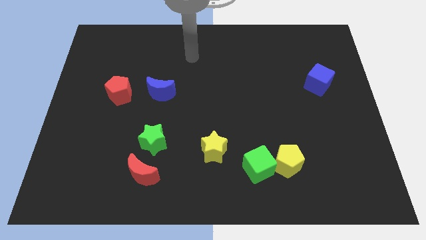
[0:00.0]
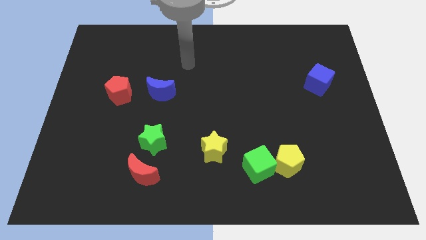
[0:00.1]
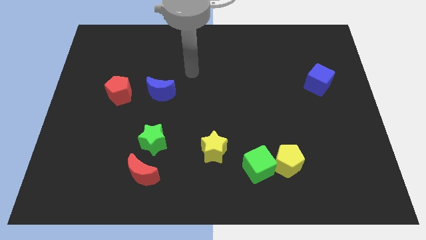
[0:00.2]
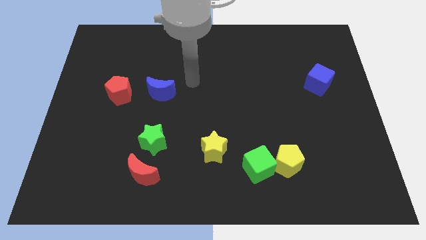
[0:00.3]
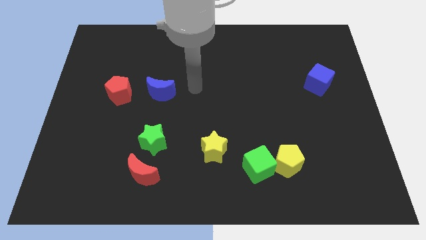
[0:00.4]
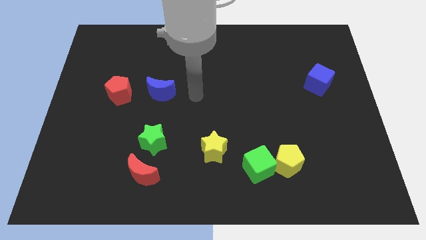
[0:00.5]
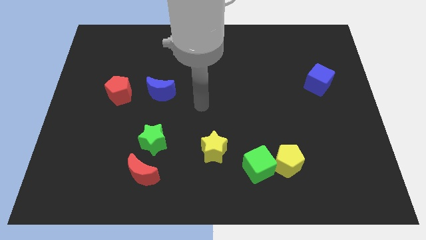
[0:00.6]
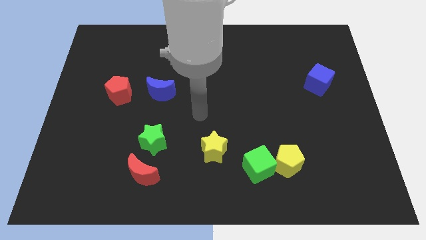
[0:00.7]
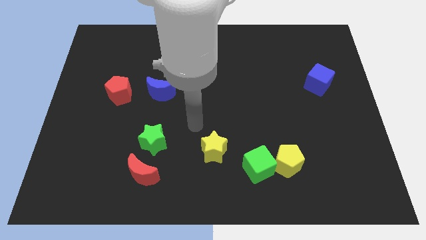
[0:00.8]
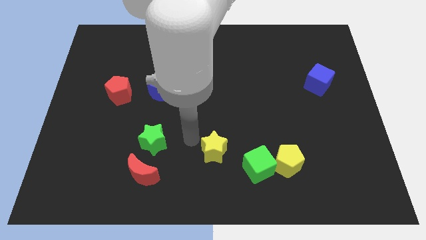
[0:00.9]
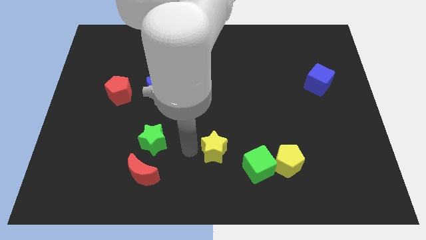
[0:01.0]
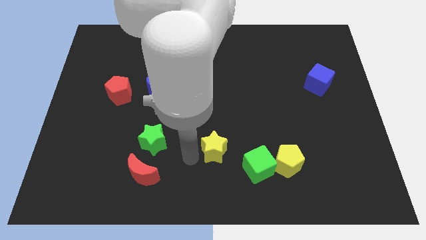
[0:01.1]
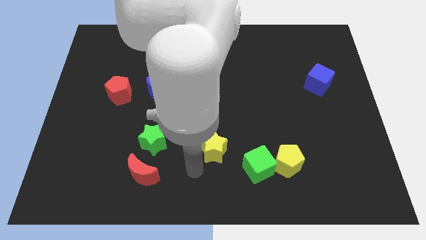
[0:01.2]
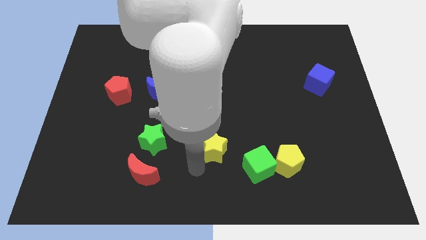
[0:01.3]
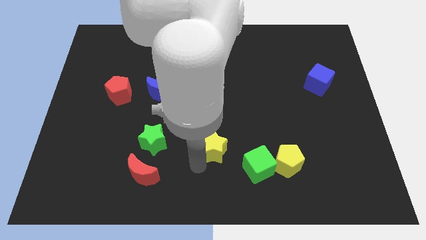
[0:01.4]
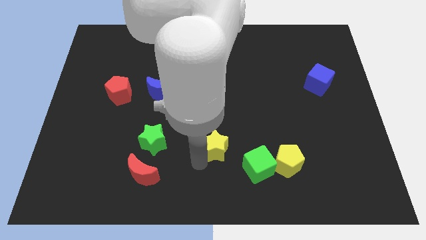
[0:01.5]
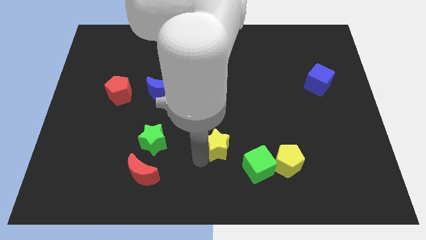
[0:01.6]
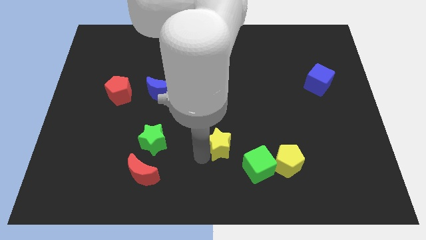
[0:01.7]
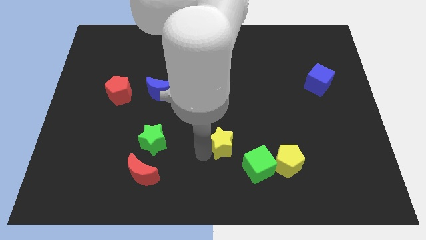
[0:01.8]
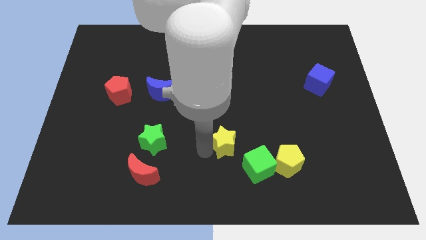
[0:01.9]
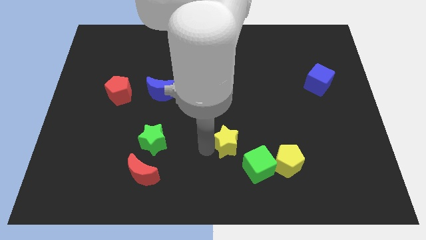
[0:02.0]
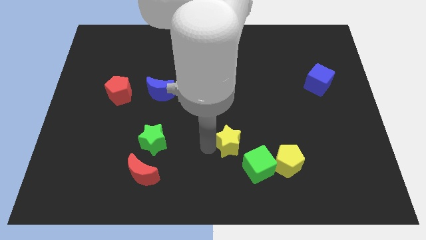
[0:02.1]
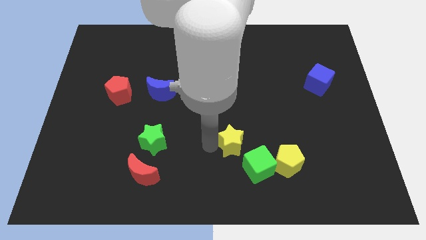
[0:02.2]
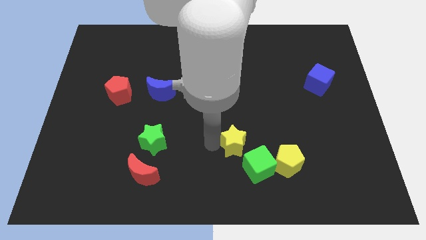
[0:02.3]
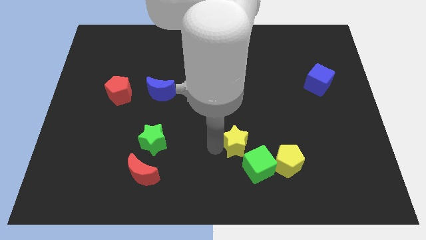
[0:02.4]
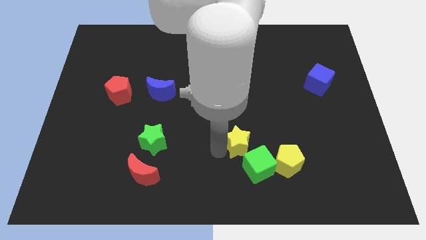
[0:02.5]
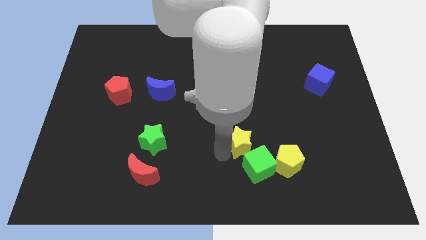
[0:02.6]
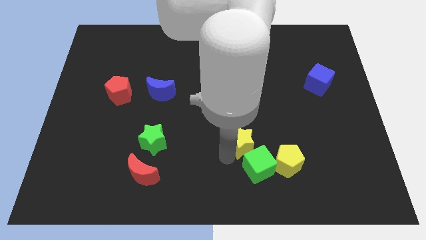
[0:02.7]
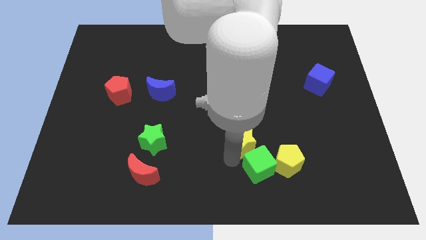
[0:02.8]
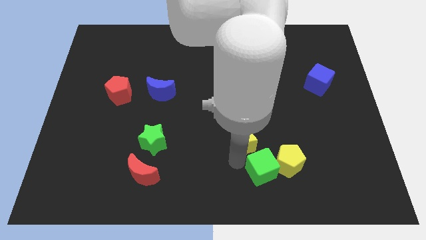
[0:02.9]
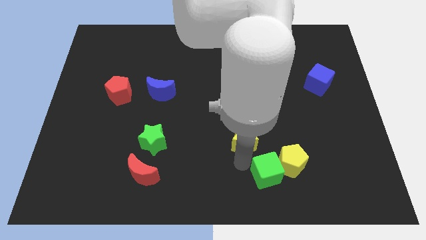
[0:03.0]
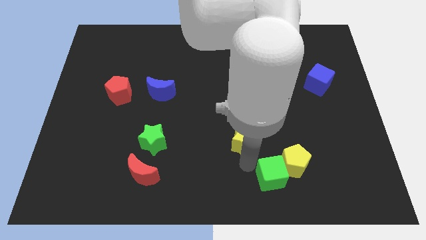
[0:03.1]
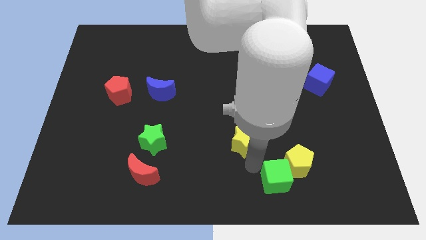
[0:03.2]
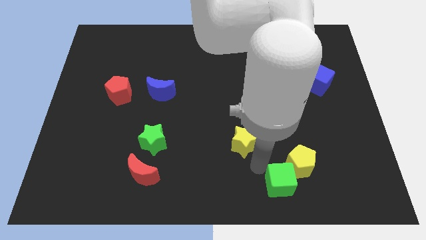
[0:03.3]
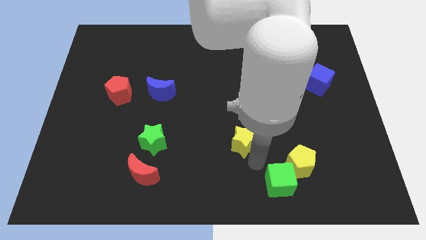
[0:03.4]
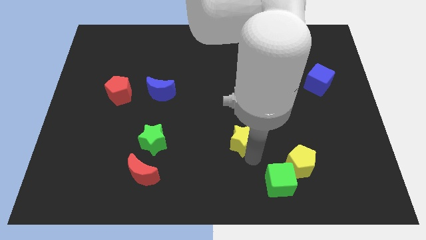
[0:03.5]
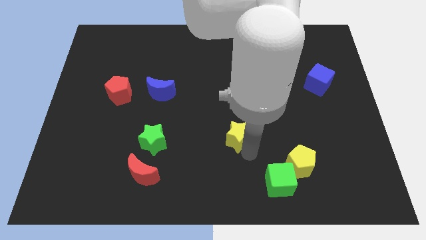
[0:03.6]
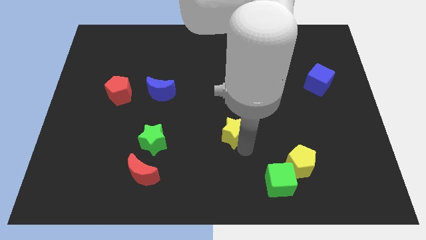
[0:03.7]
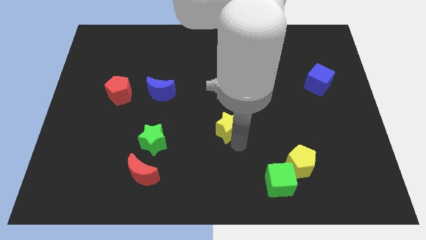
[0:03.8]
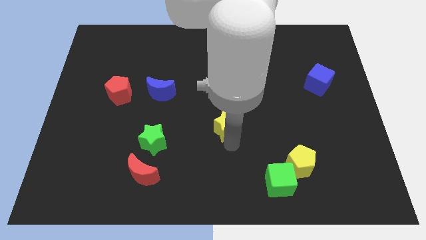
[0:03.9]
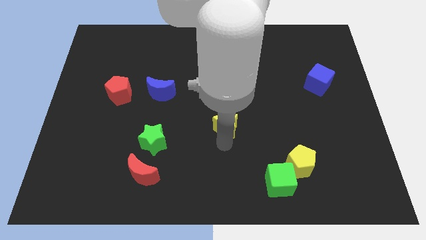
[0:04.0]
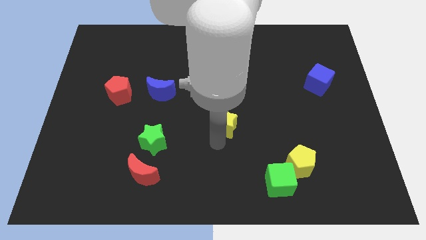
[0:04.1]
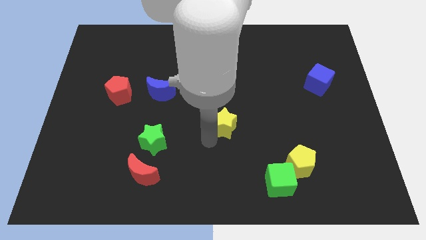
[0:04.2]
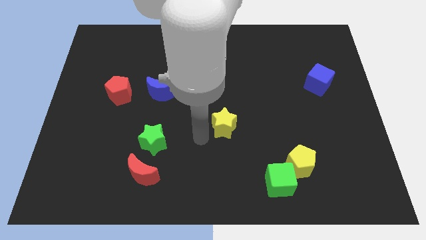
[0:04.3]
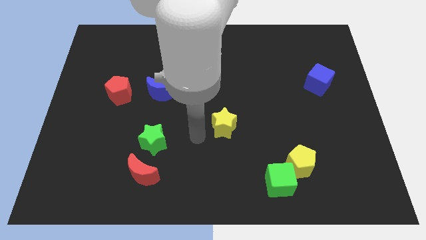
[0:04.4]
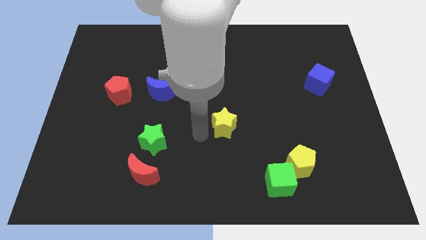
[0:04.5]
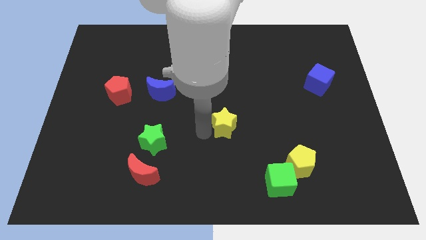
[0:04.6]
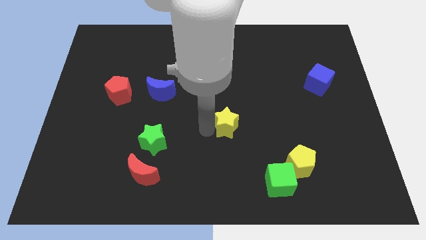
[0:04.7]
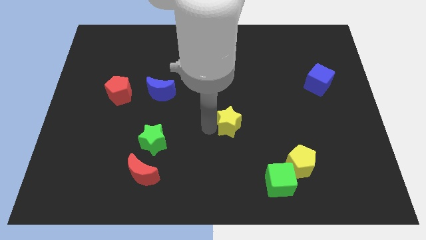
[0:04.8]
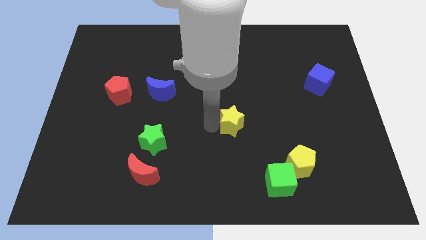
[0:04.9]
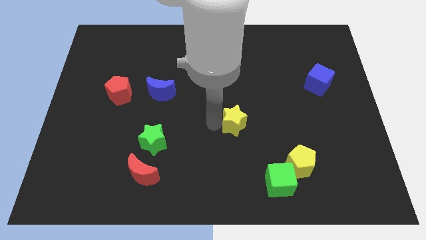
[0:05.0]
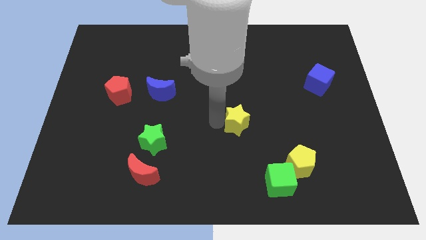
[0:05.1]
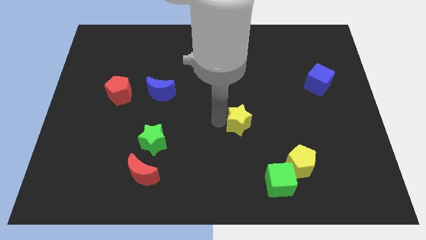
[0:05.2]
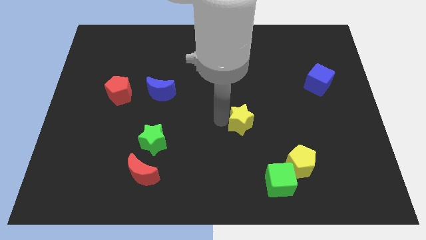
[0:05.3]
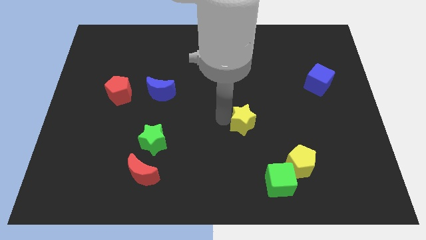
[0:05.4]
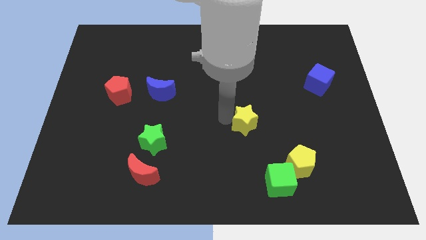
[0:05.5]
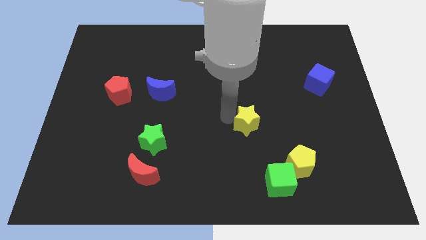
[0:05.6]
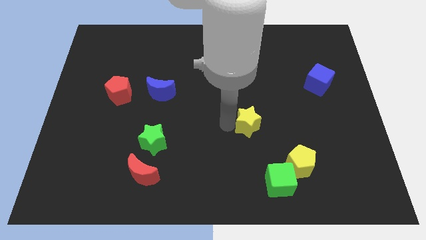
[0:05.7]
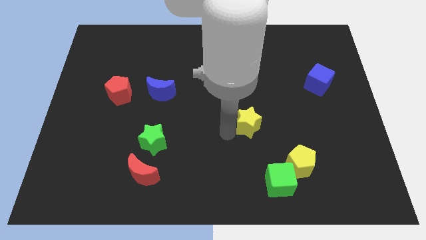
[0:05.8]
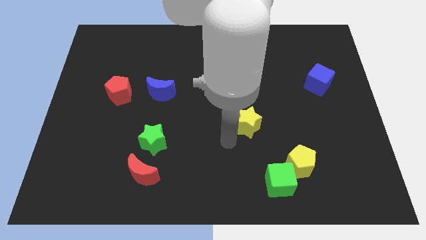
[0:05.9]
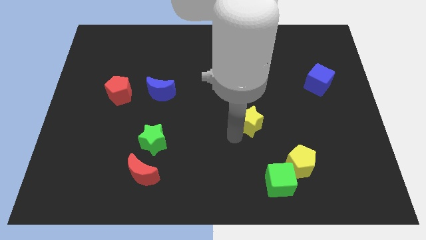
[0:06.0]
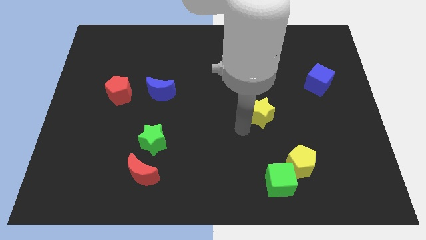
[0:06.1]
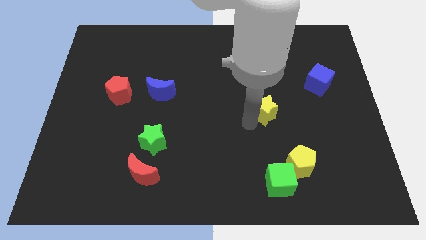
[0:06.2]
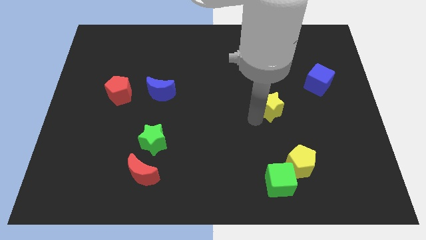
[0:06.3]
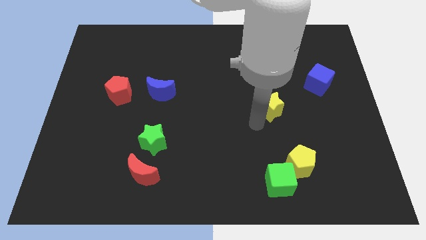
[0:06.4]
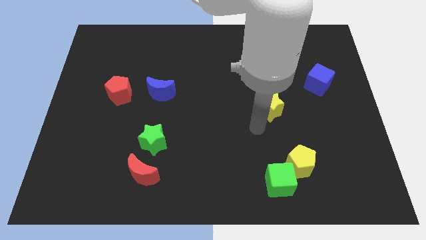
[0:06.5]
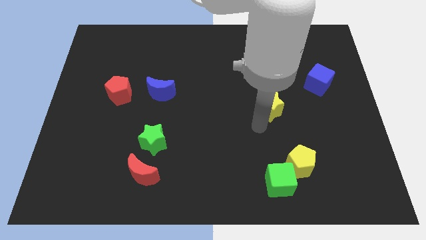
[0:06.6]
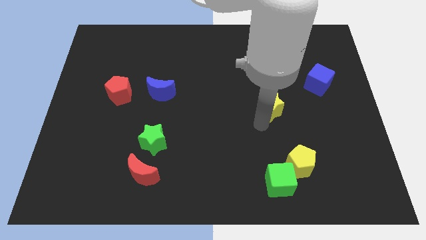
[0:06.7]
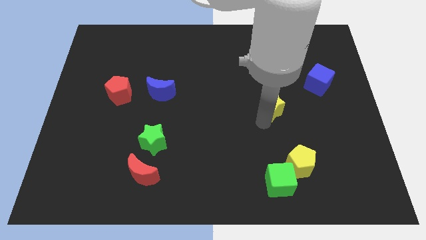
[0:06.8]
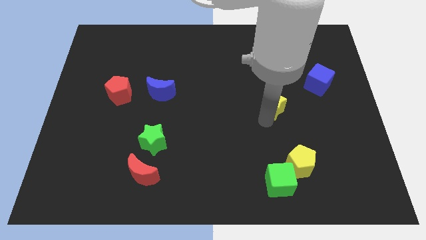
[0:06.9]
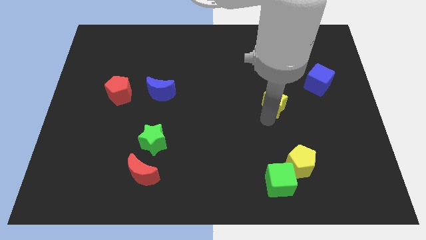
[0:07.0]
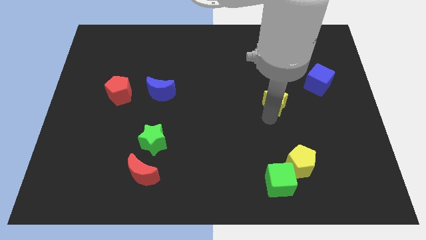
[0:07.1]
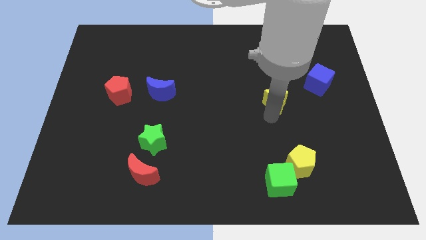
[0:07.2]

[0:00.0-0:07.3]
slide the yellow star up and then right

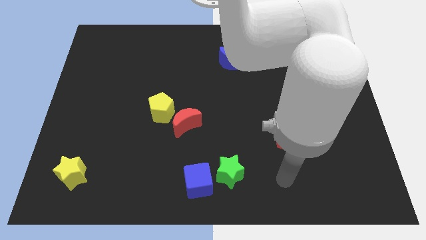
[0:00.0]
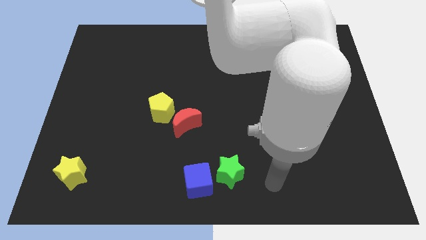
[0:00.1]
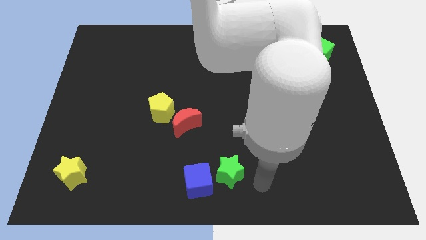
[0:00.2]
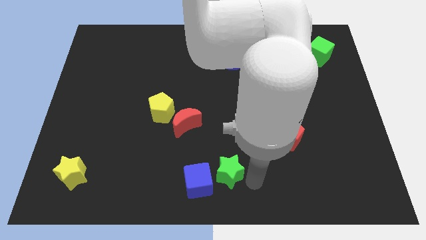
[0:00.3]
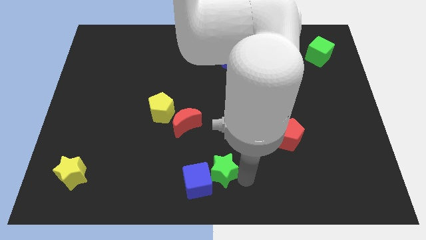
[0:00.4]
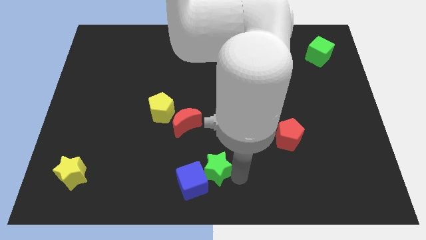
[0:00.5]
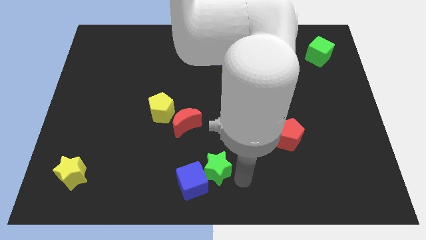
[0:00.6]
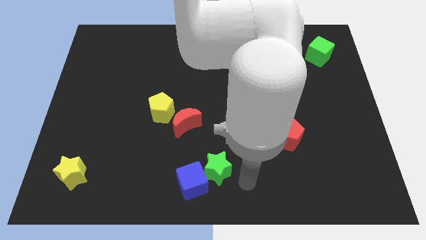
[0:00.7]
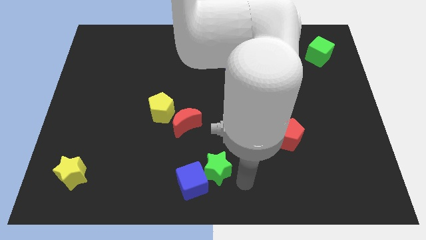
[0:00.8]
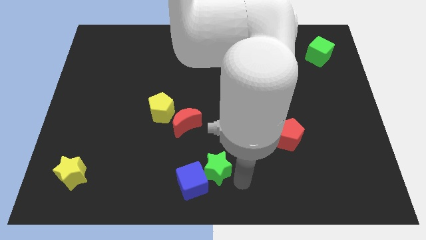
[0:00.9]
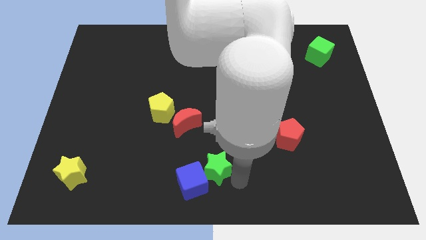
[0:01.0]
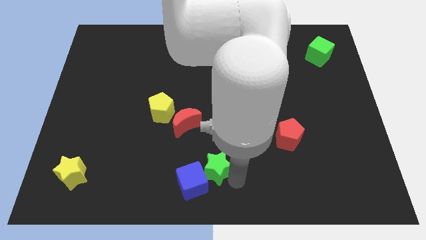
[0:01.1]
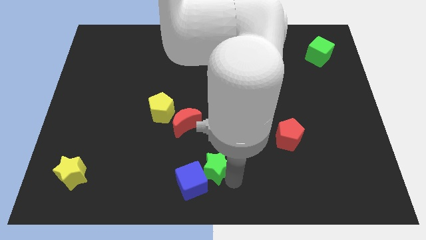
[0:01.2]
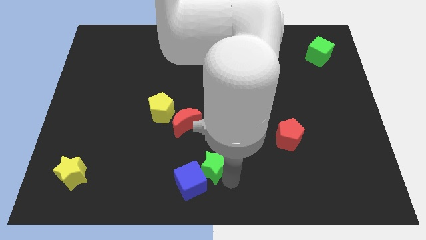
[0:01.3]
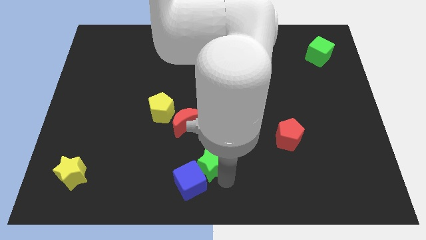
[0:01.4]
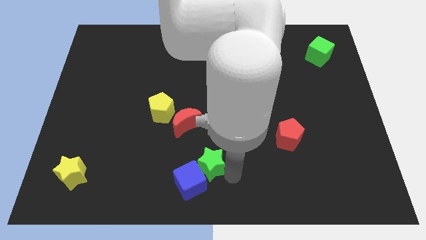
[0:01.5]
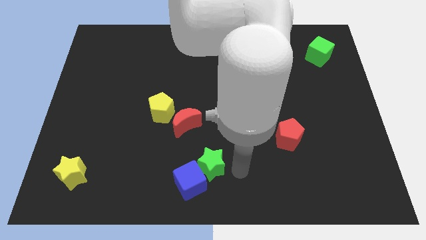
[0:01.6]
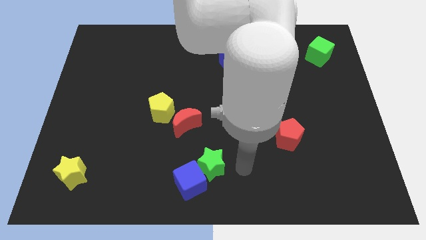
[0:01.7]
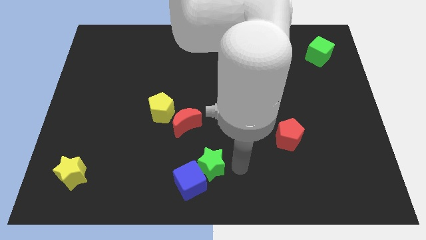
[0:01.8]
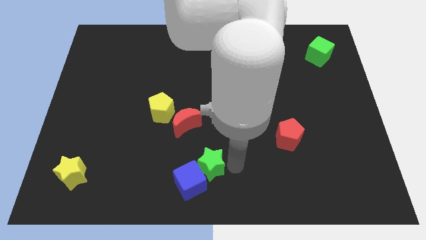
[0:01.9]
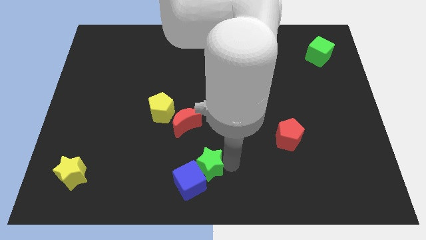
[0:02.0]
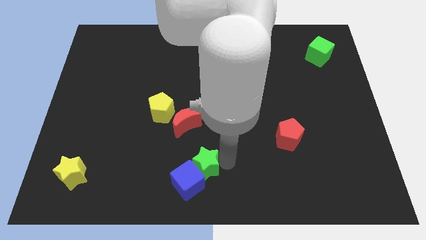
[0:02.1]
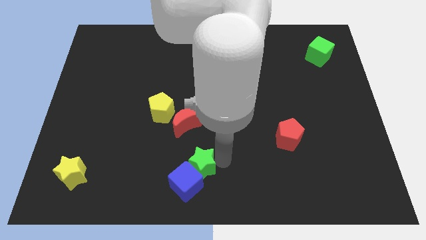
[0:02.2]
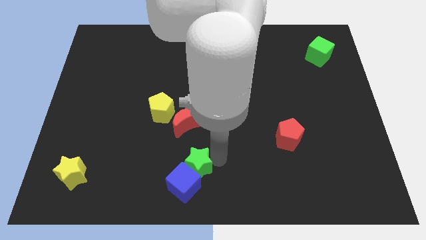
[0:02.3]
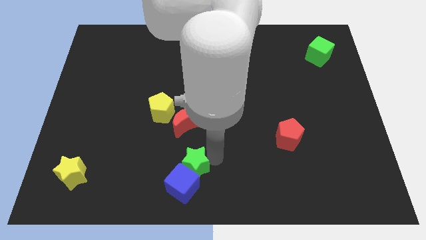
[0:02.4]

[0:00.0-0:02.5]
push the green star left a little bit
